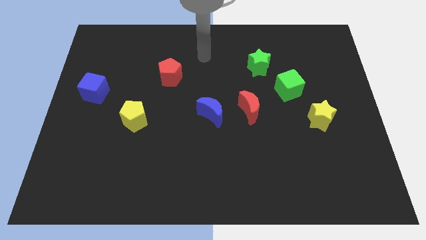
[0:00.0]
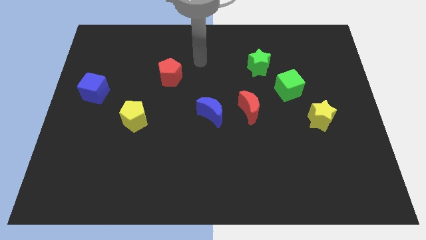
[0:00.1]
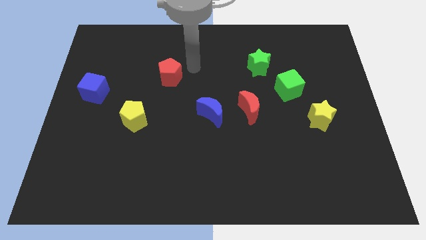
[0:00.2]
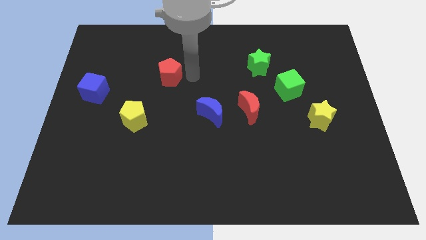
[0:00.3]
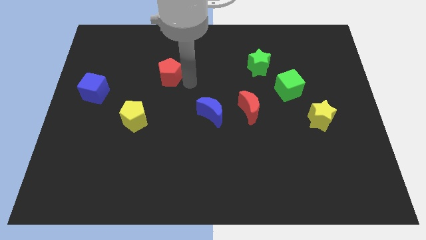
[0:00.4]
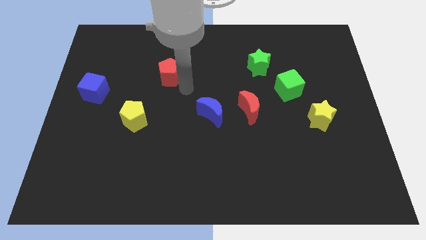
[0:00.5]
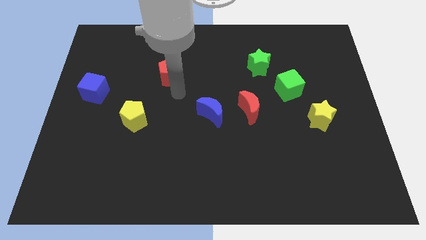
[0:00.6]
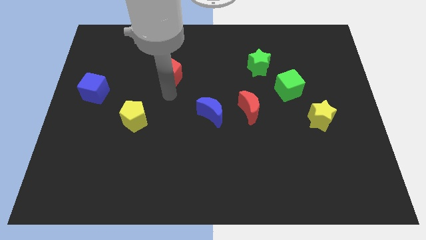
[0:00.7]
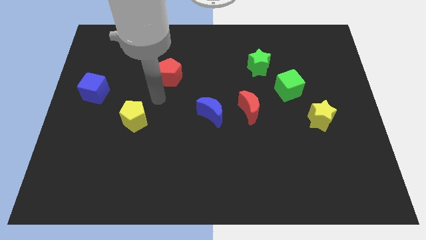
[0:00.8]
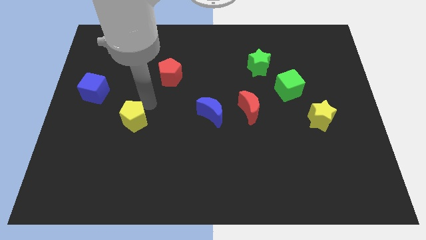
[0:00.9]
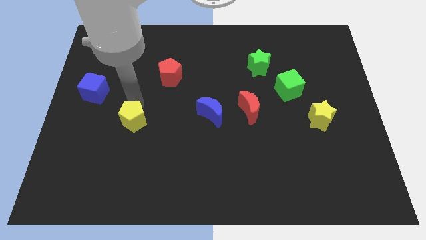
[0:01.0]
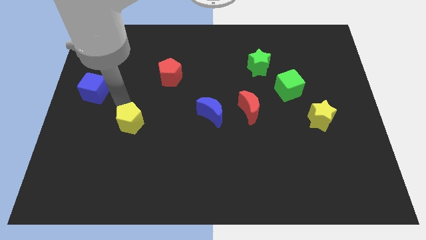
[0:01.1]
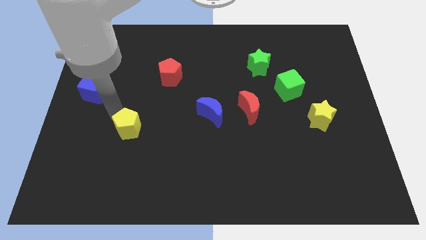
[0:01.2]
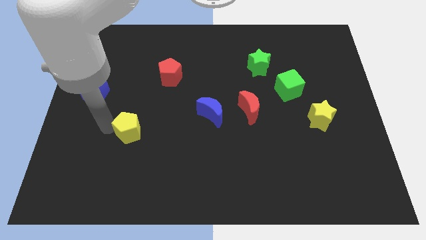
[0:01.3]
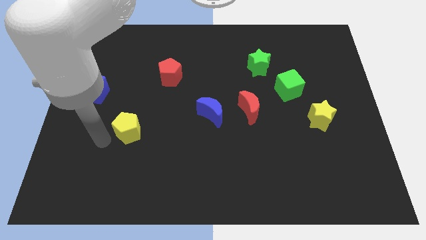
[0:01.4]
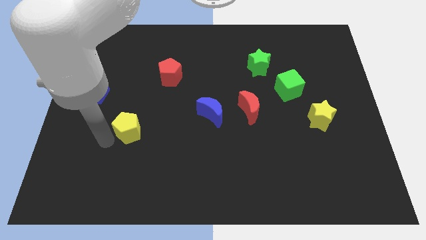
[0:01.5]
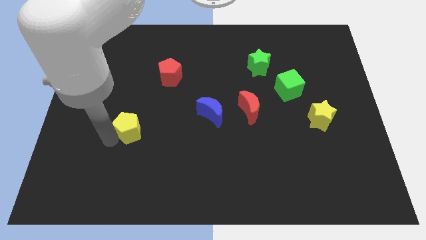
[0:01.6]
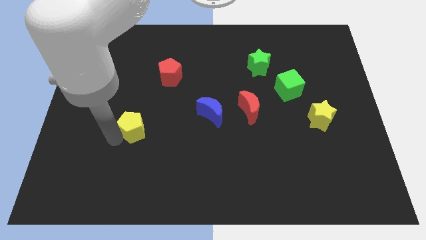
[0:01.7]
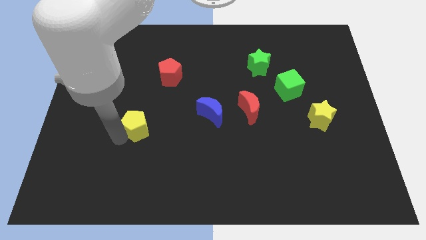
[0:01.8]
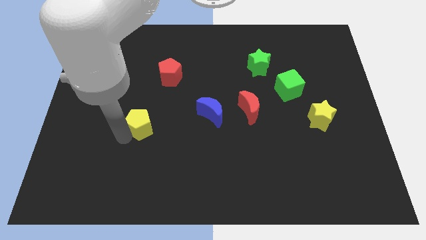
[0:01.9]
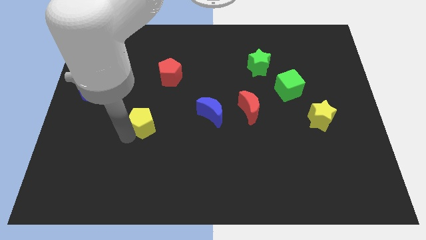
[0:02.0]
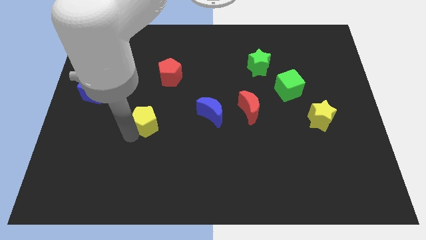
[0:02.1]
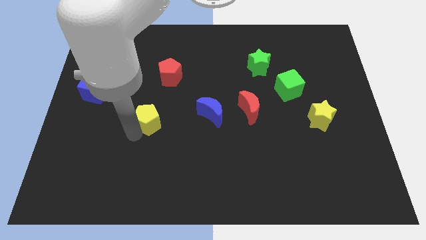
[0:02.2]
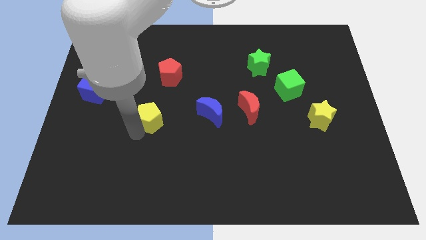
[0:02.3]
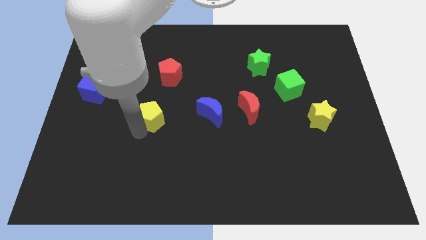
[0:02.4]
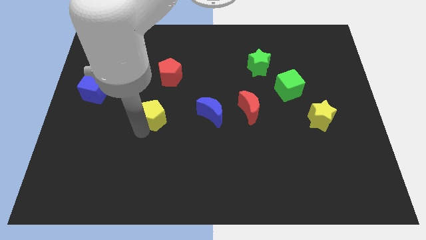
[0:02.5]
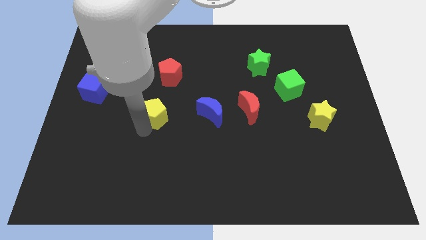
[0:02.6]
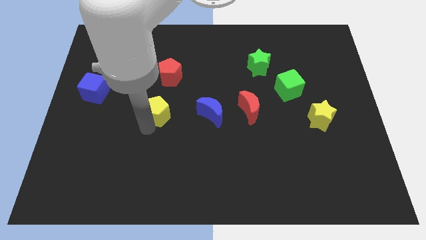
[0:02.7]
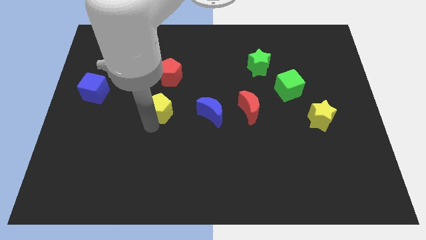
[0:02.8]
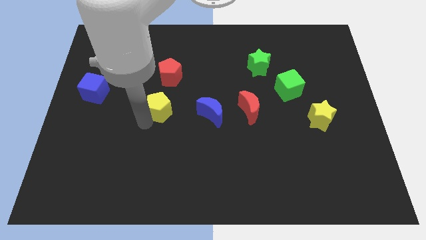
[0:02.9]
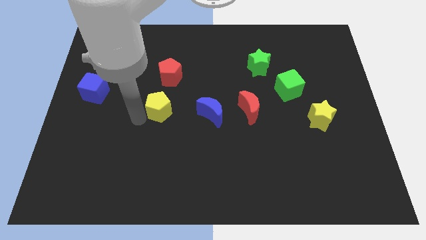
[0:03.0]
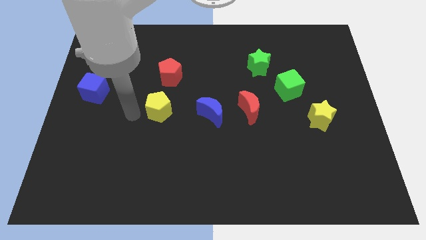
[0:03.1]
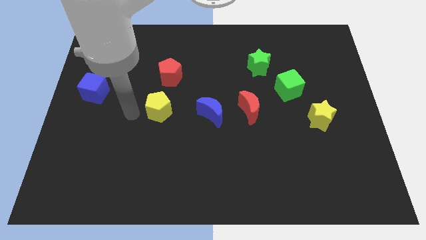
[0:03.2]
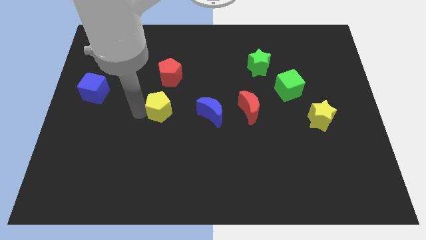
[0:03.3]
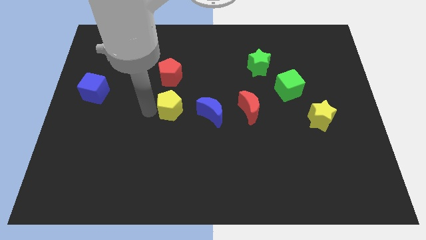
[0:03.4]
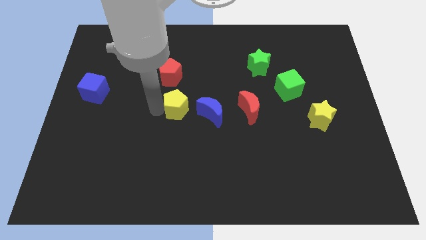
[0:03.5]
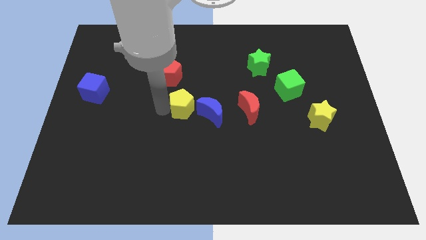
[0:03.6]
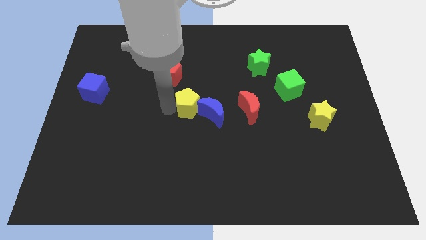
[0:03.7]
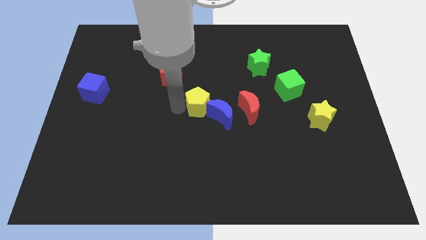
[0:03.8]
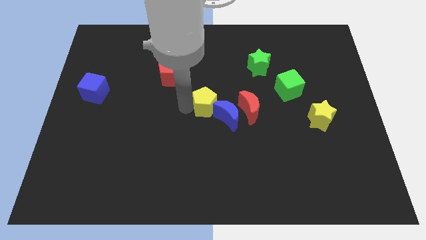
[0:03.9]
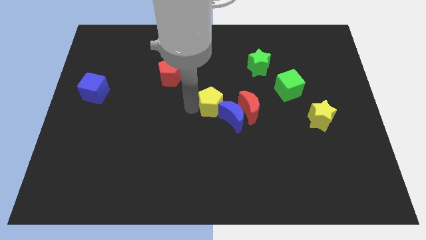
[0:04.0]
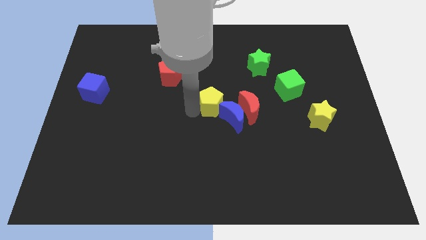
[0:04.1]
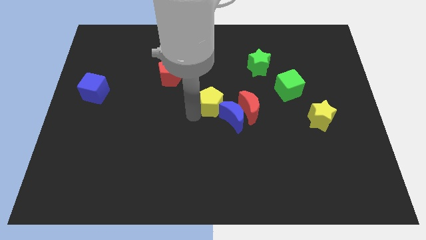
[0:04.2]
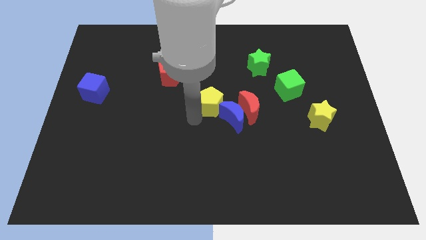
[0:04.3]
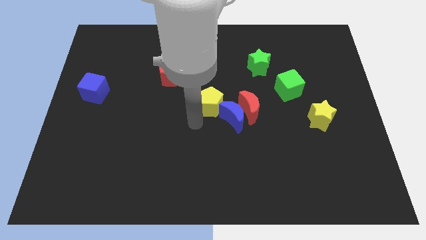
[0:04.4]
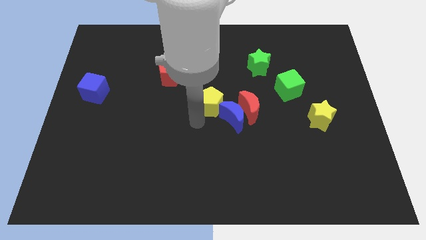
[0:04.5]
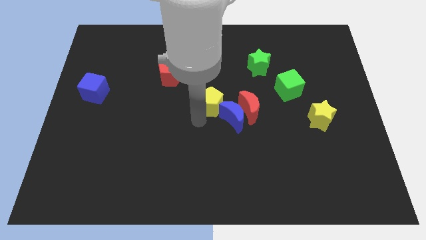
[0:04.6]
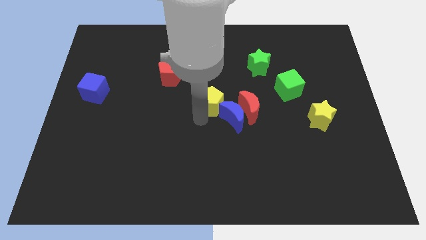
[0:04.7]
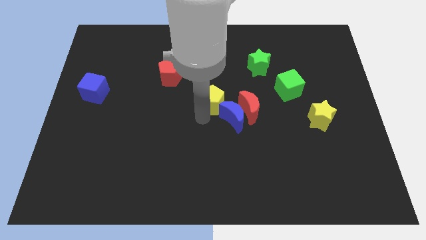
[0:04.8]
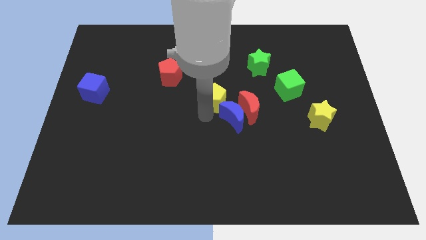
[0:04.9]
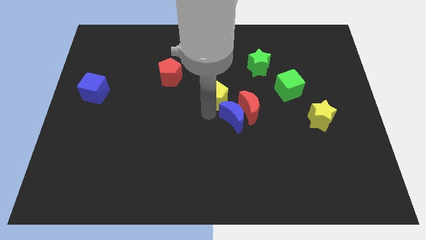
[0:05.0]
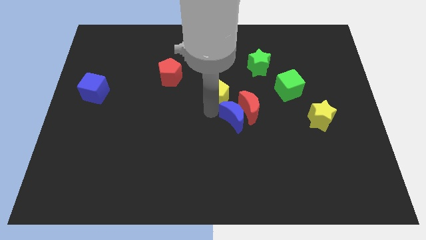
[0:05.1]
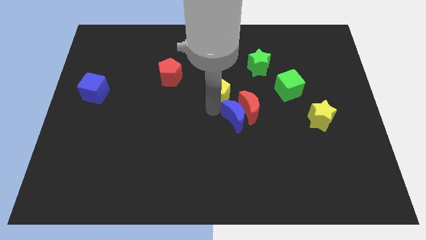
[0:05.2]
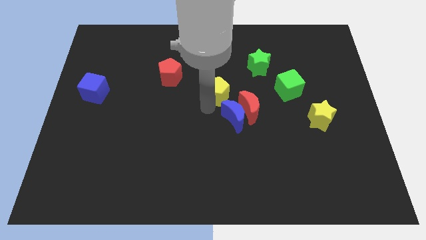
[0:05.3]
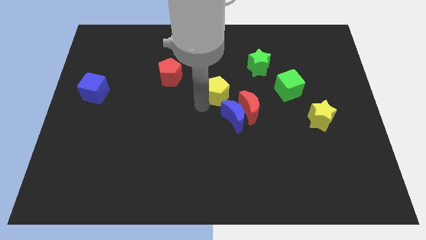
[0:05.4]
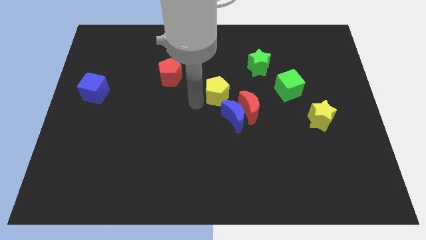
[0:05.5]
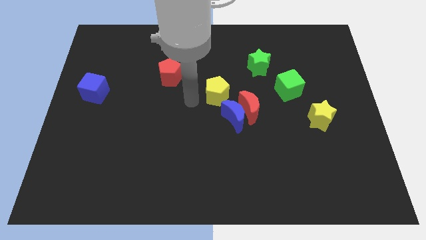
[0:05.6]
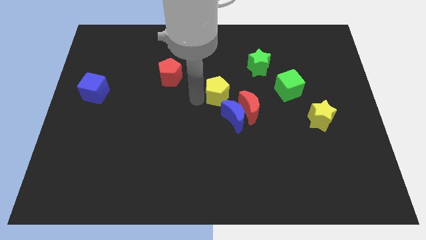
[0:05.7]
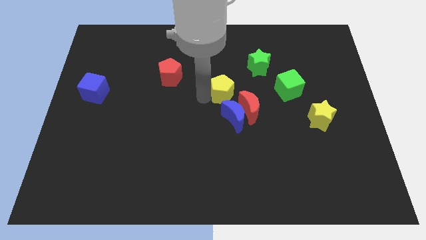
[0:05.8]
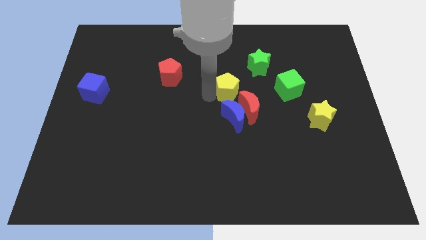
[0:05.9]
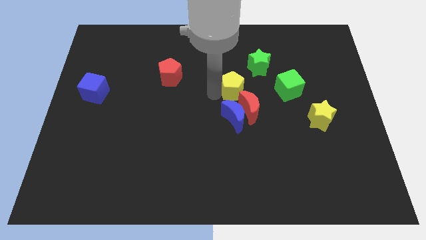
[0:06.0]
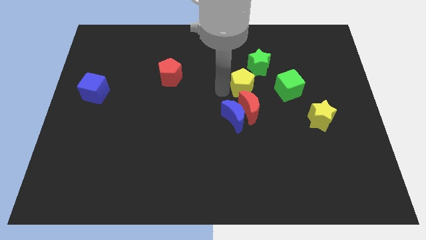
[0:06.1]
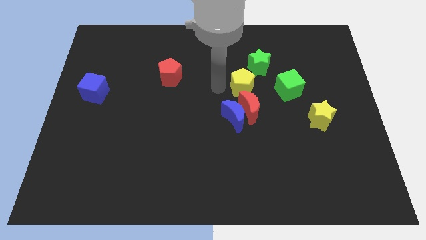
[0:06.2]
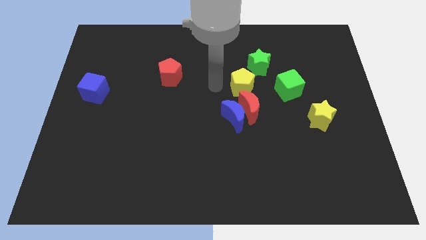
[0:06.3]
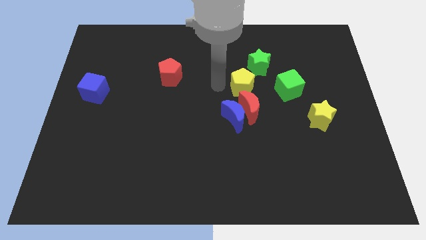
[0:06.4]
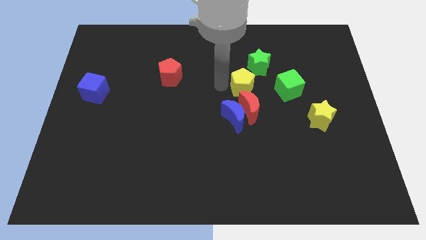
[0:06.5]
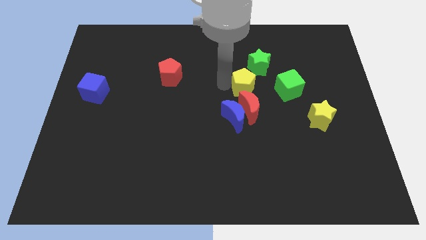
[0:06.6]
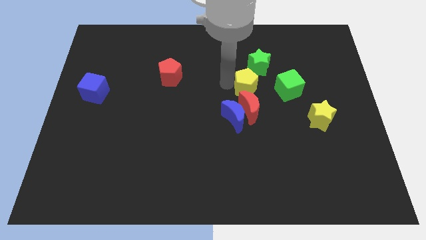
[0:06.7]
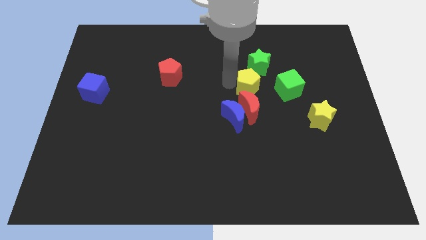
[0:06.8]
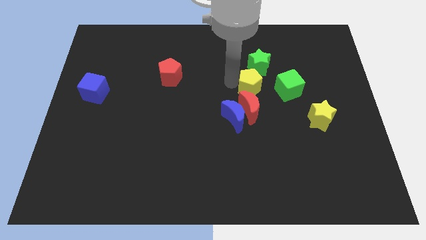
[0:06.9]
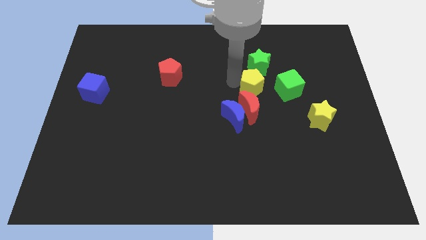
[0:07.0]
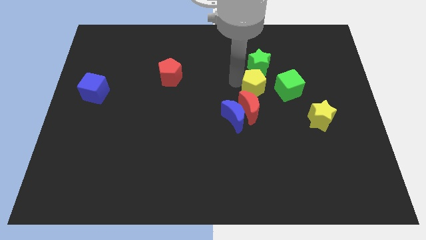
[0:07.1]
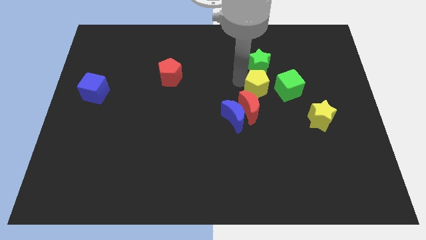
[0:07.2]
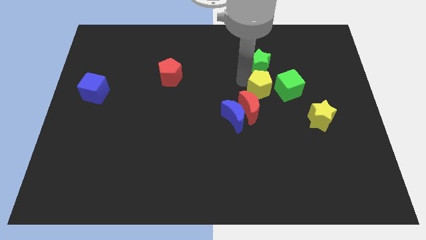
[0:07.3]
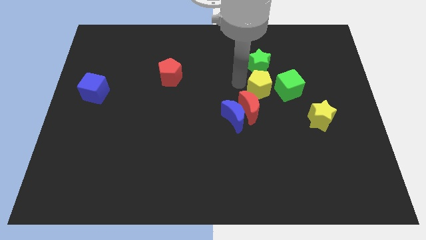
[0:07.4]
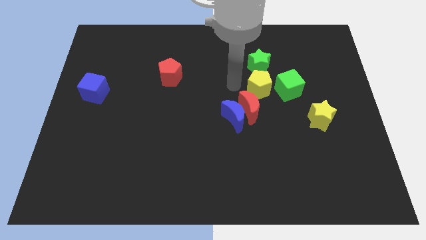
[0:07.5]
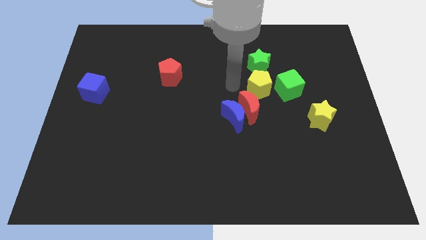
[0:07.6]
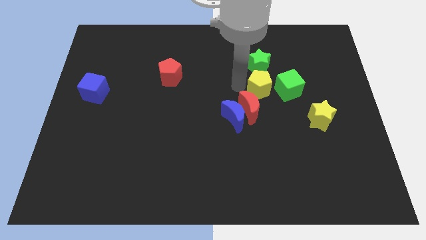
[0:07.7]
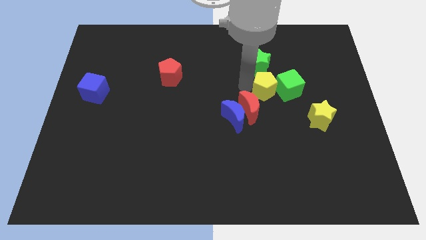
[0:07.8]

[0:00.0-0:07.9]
put the yellow pentagon to the green cube
